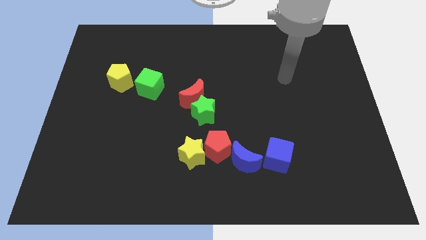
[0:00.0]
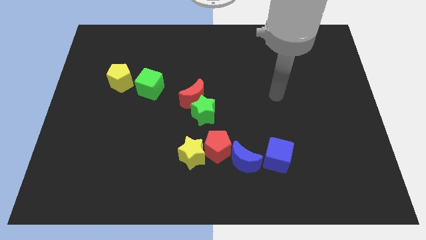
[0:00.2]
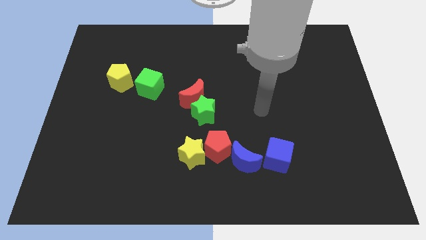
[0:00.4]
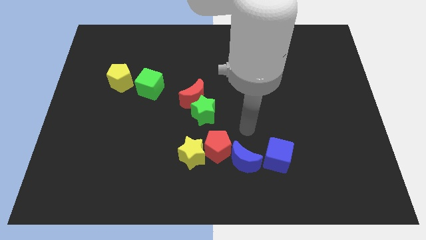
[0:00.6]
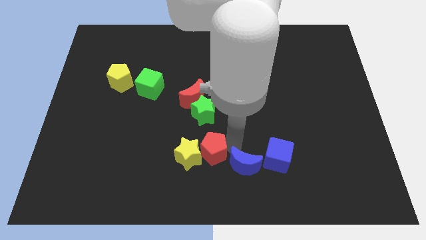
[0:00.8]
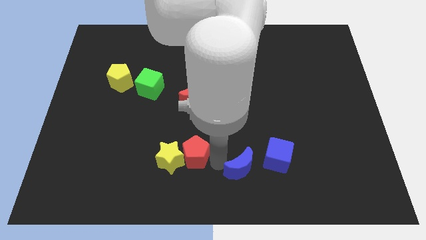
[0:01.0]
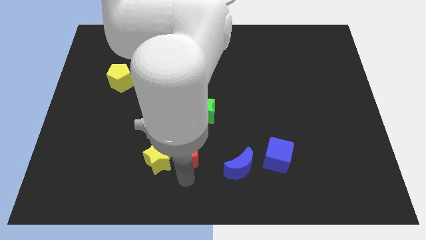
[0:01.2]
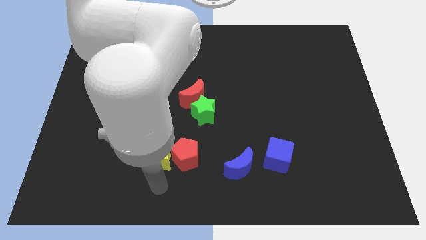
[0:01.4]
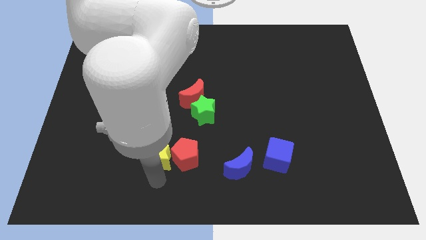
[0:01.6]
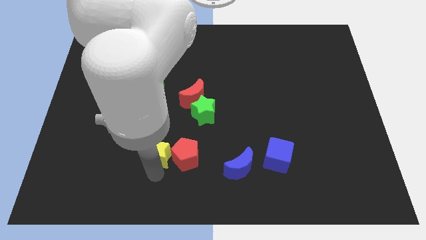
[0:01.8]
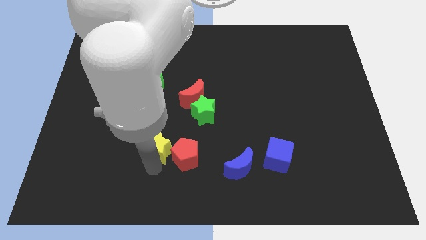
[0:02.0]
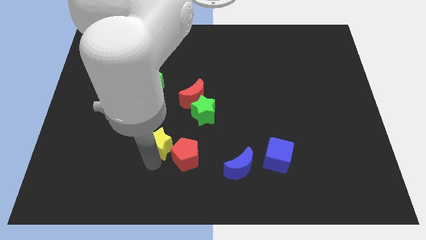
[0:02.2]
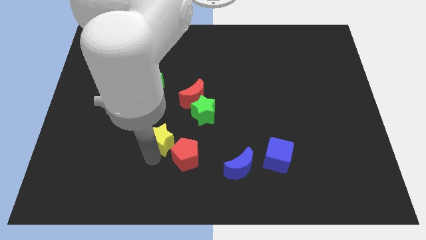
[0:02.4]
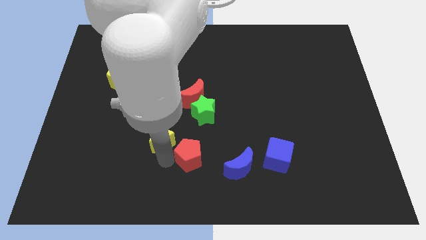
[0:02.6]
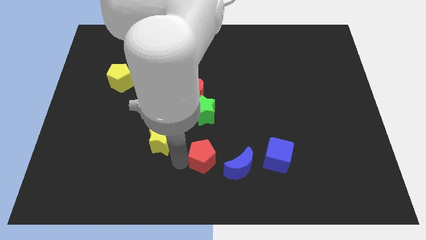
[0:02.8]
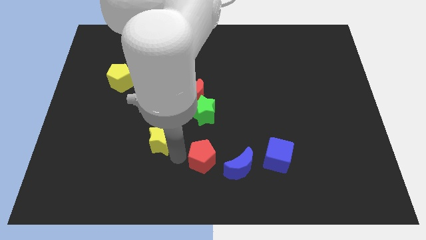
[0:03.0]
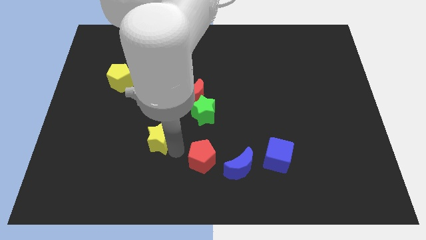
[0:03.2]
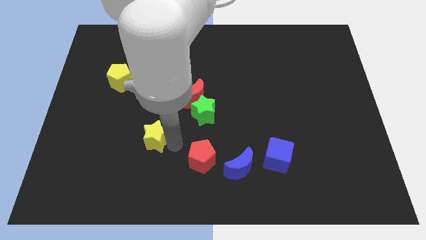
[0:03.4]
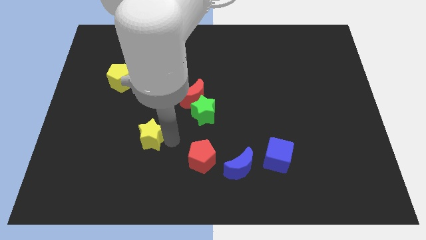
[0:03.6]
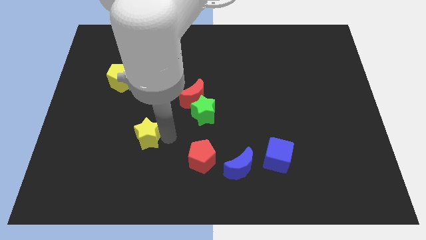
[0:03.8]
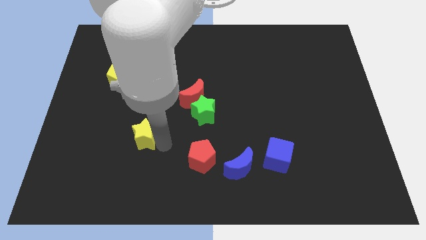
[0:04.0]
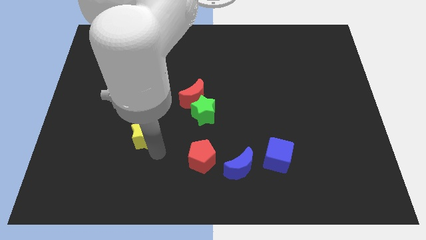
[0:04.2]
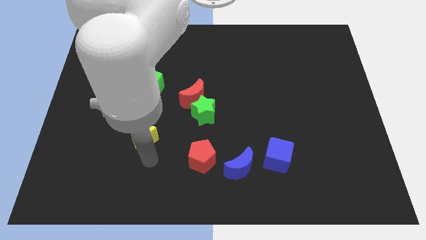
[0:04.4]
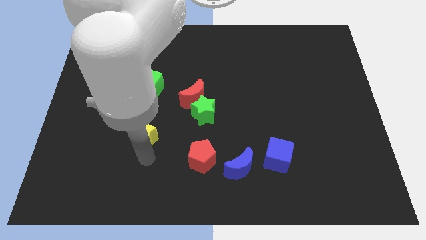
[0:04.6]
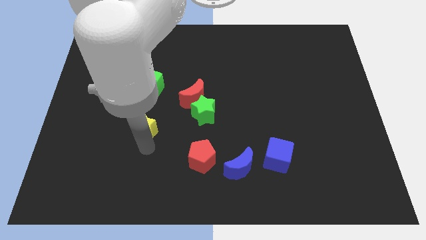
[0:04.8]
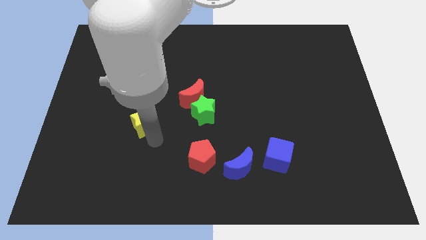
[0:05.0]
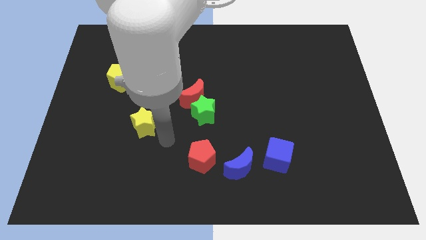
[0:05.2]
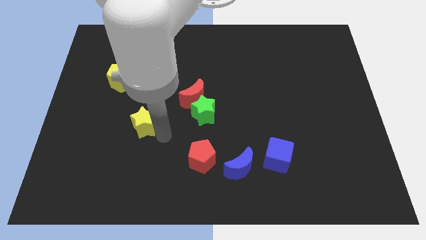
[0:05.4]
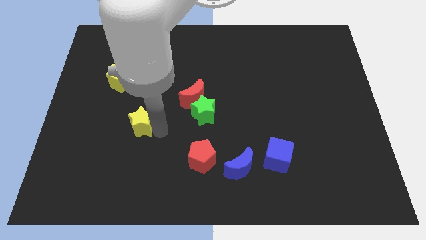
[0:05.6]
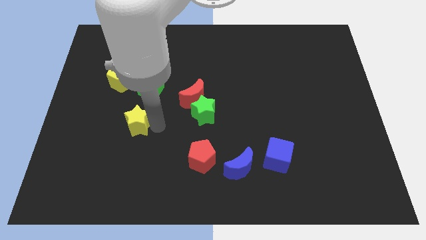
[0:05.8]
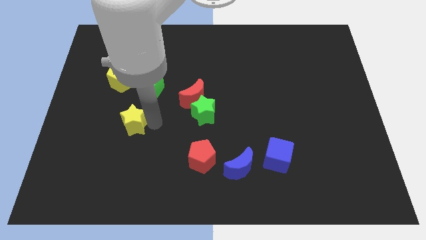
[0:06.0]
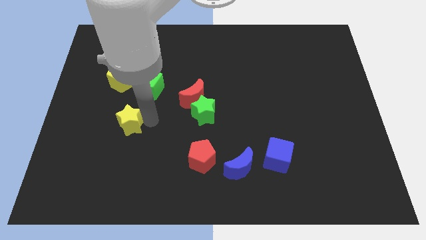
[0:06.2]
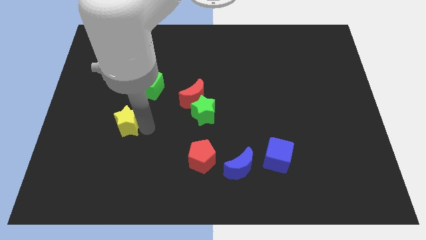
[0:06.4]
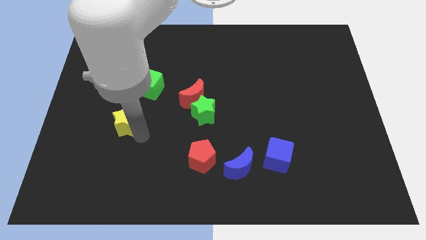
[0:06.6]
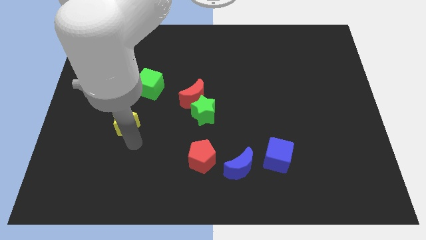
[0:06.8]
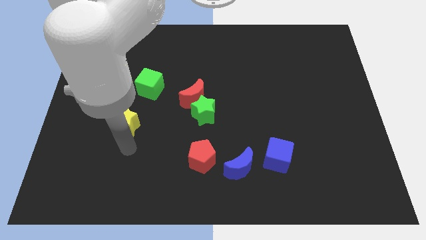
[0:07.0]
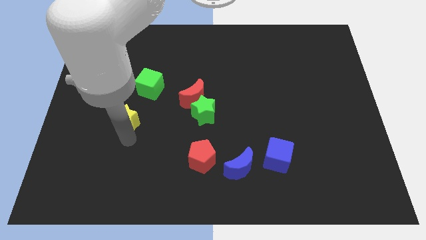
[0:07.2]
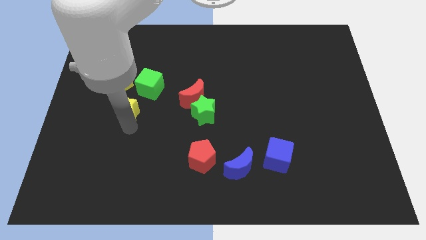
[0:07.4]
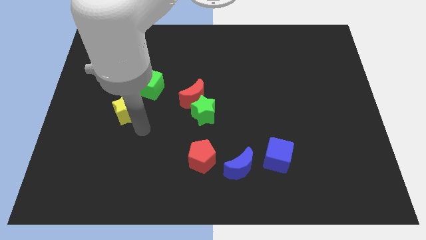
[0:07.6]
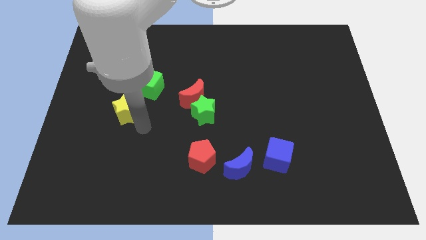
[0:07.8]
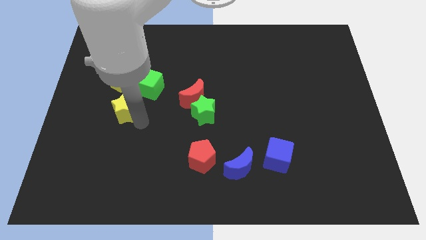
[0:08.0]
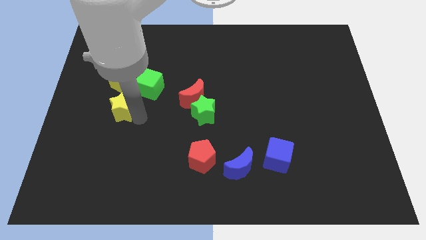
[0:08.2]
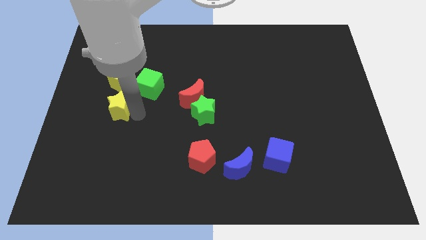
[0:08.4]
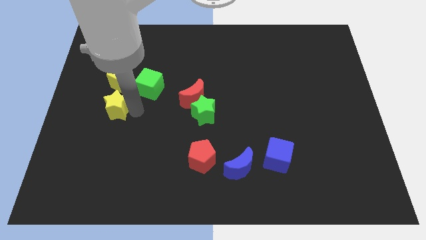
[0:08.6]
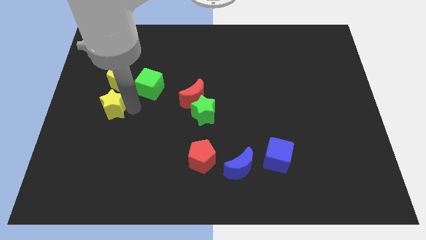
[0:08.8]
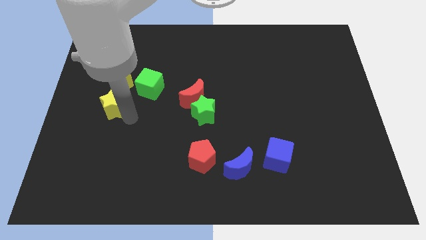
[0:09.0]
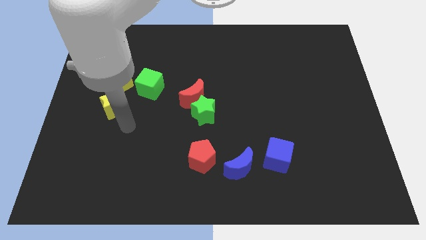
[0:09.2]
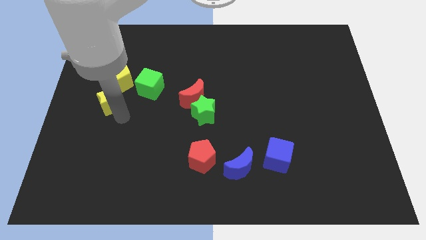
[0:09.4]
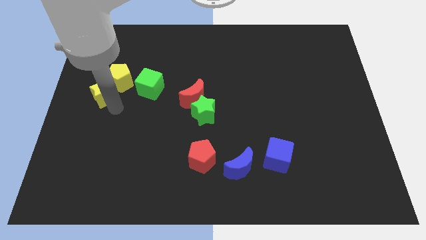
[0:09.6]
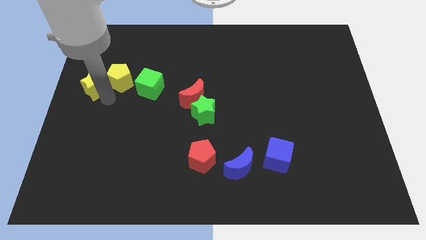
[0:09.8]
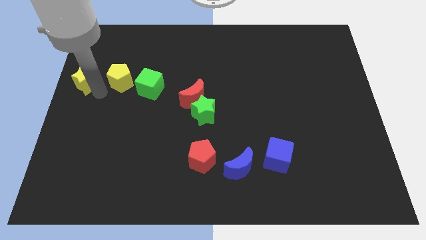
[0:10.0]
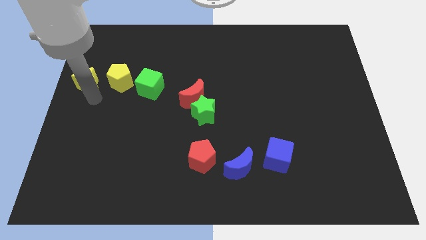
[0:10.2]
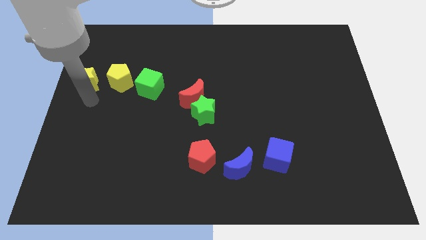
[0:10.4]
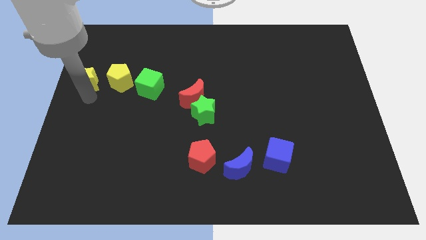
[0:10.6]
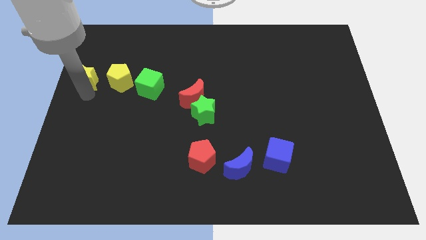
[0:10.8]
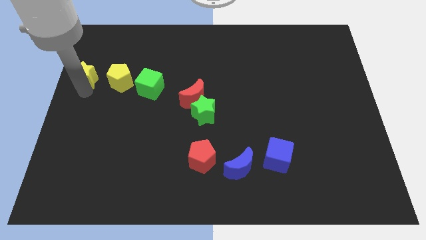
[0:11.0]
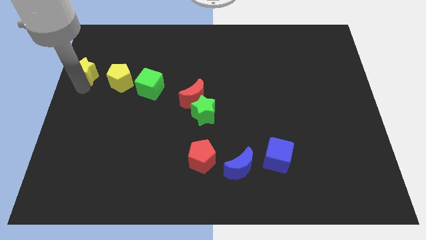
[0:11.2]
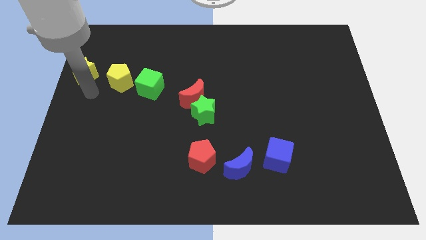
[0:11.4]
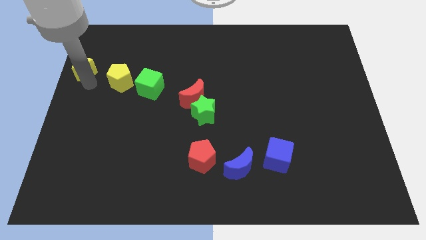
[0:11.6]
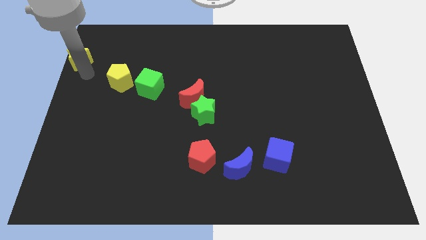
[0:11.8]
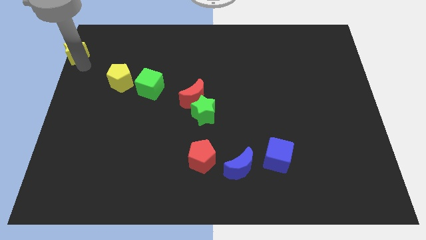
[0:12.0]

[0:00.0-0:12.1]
put the yellow star to the top left
